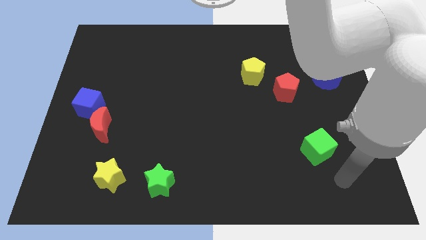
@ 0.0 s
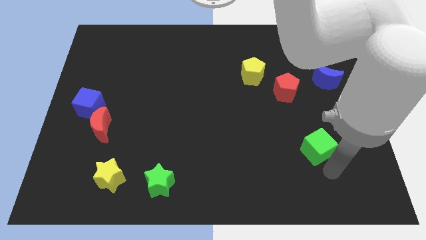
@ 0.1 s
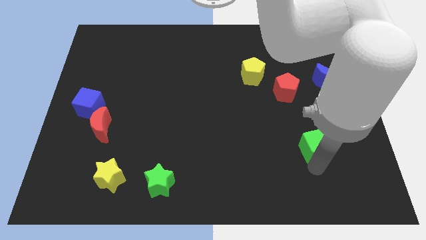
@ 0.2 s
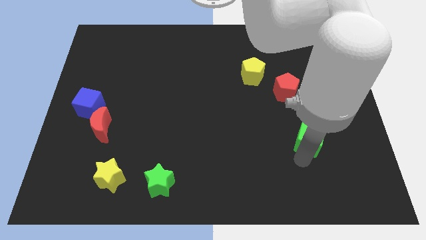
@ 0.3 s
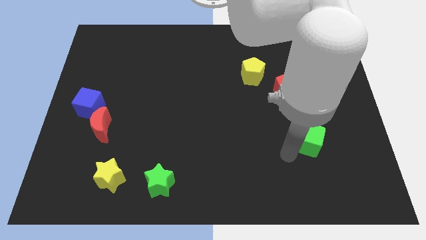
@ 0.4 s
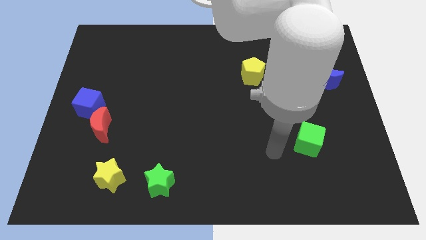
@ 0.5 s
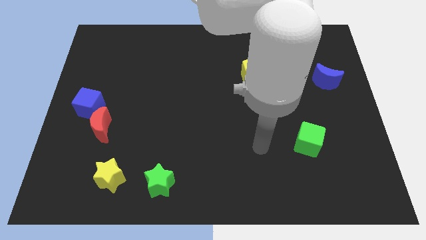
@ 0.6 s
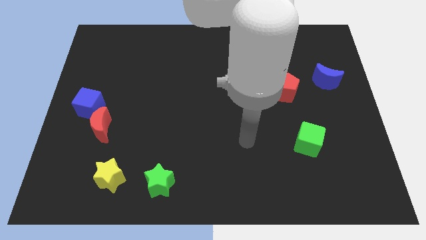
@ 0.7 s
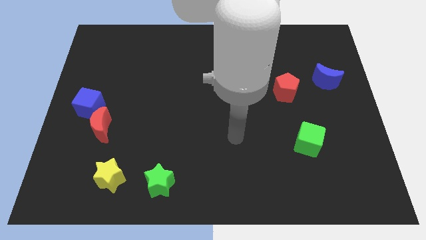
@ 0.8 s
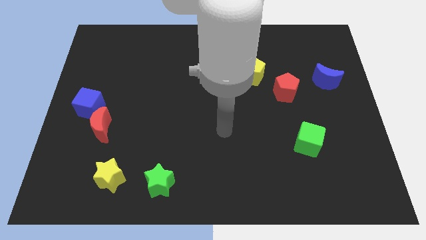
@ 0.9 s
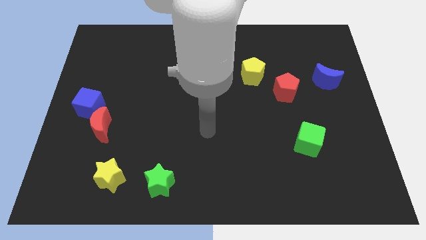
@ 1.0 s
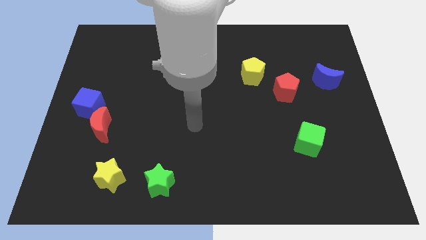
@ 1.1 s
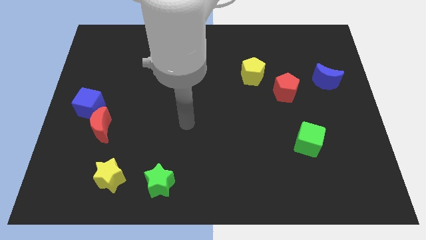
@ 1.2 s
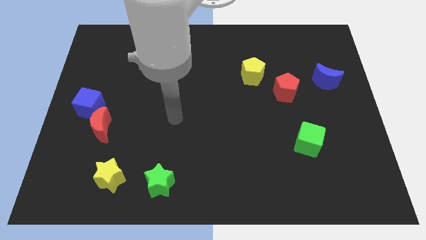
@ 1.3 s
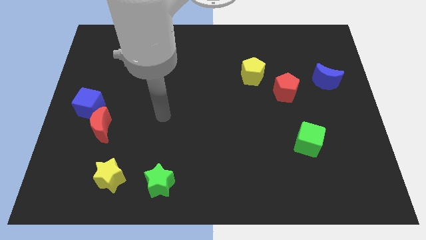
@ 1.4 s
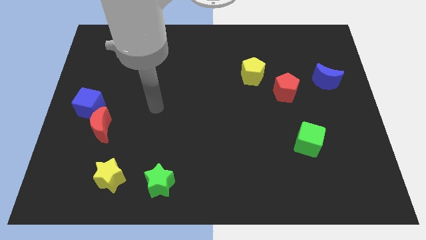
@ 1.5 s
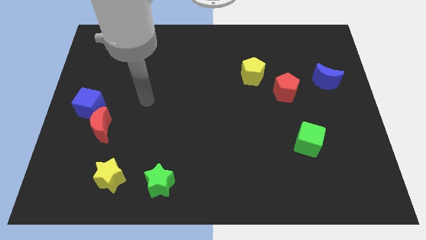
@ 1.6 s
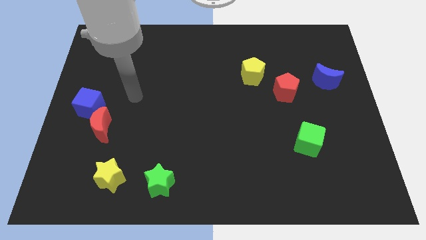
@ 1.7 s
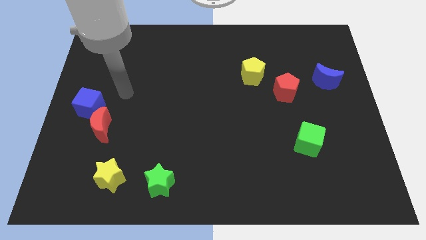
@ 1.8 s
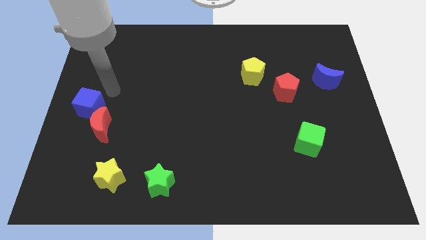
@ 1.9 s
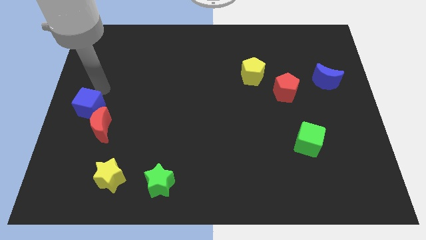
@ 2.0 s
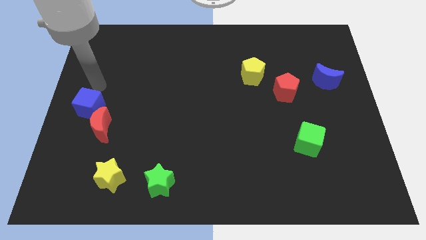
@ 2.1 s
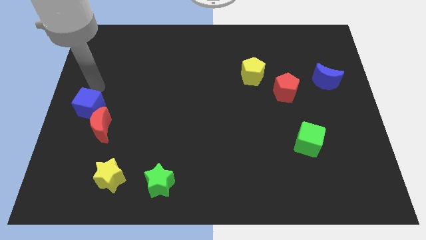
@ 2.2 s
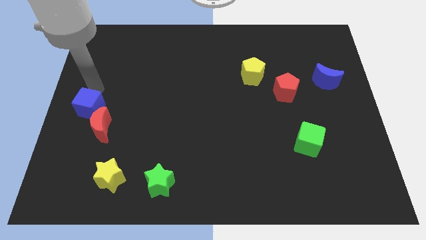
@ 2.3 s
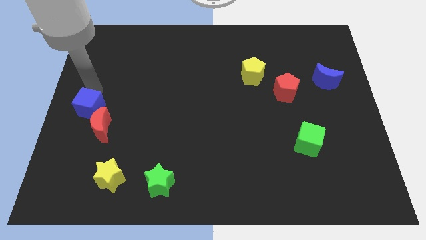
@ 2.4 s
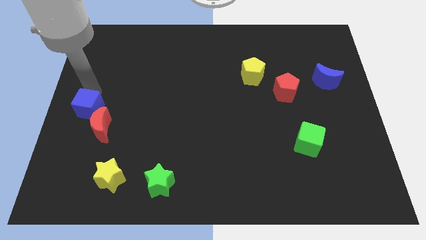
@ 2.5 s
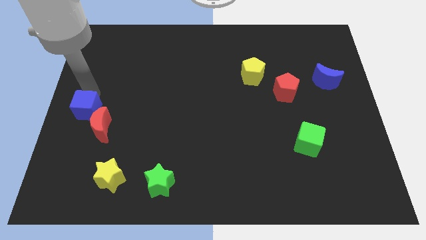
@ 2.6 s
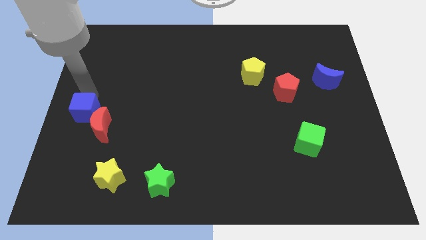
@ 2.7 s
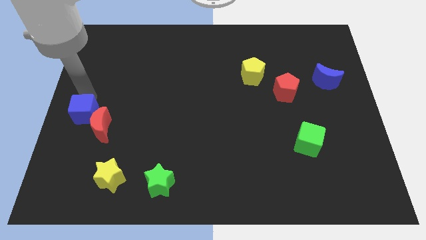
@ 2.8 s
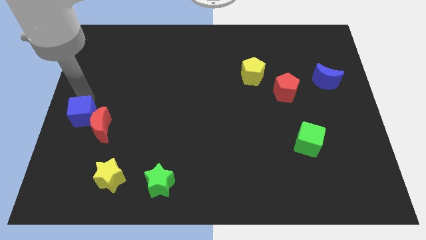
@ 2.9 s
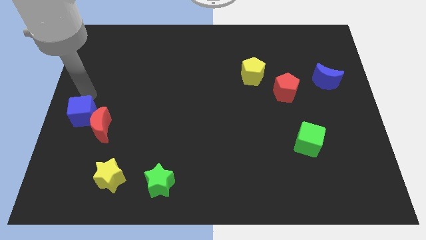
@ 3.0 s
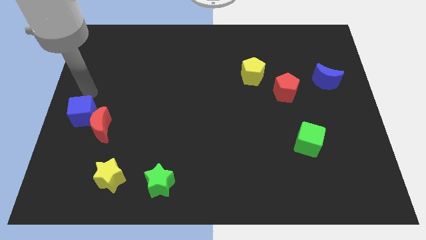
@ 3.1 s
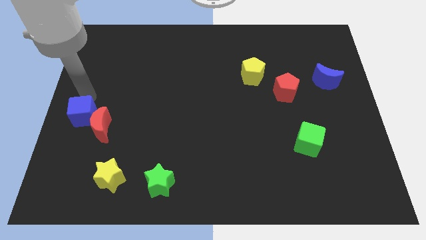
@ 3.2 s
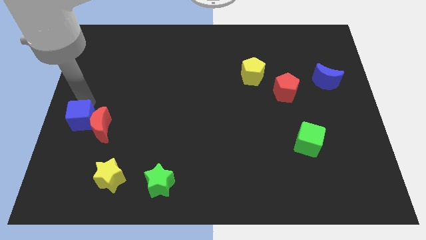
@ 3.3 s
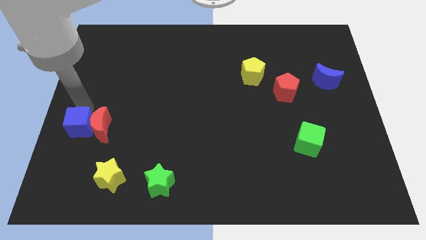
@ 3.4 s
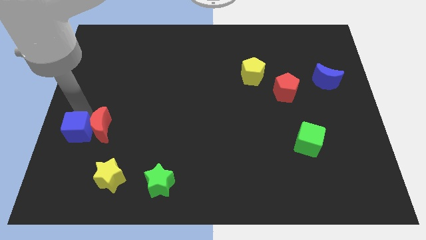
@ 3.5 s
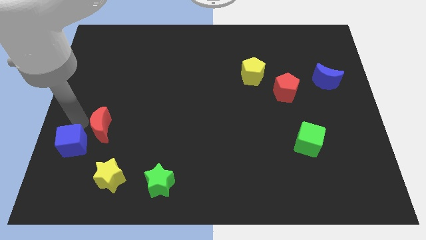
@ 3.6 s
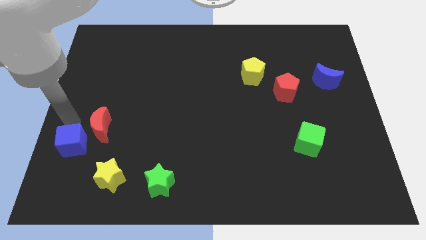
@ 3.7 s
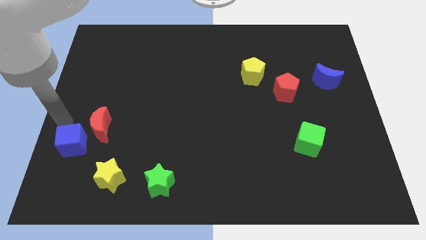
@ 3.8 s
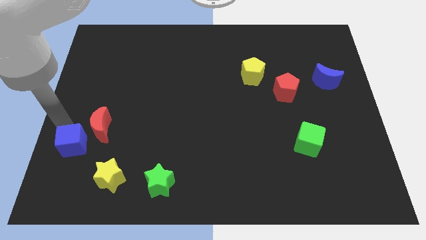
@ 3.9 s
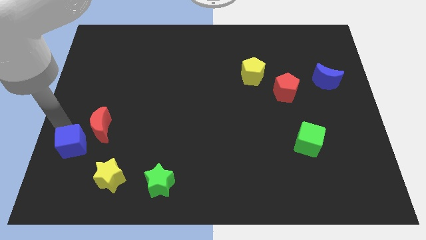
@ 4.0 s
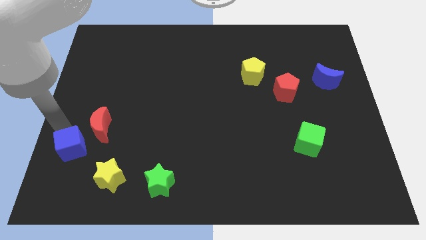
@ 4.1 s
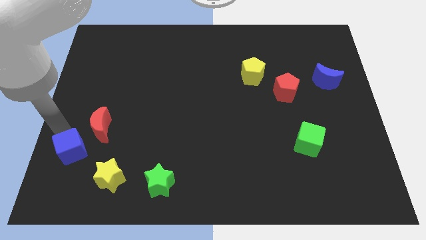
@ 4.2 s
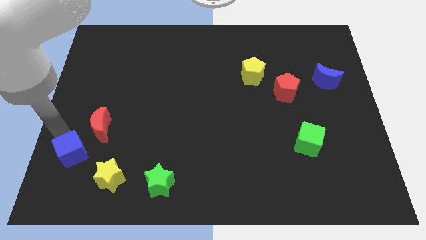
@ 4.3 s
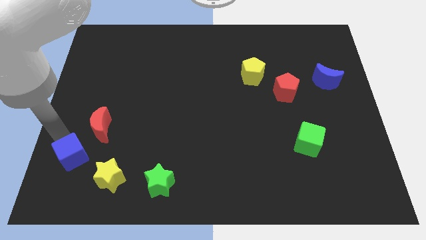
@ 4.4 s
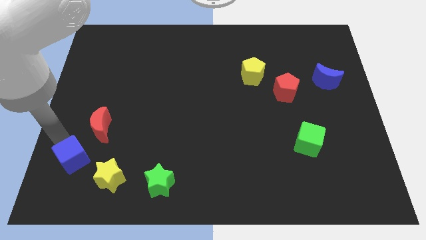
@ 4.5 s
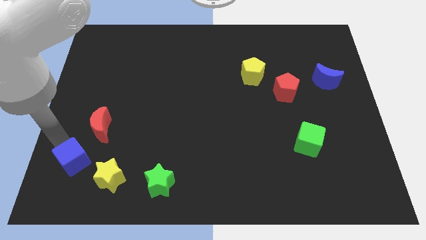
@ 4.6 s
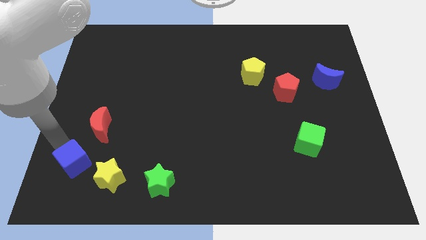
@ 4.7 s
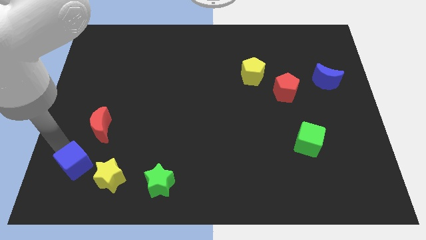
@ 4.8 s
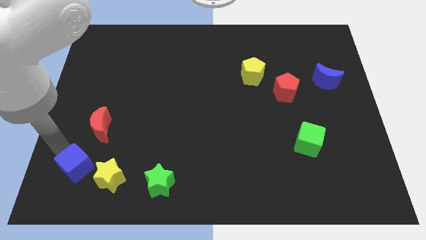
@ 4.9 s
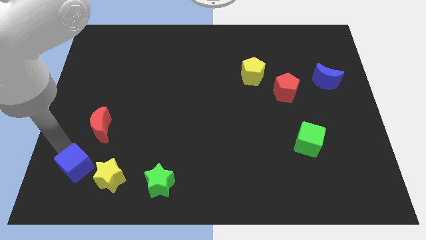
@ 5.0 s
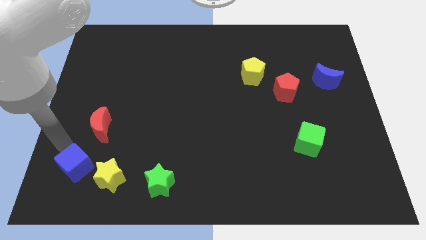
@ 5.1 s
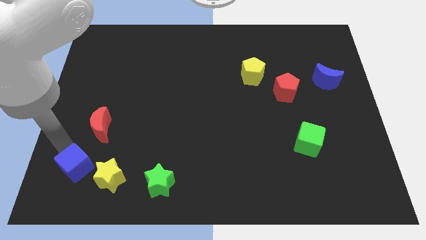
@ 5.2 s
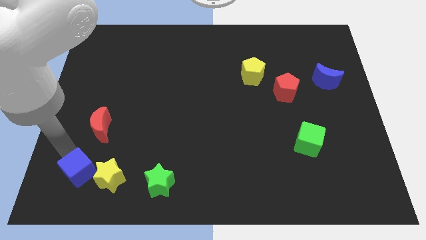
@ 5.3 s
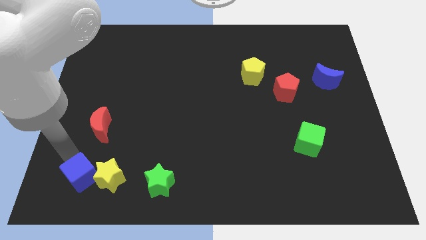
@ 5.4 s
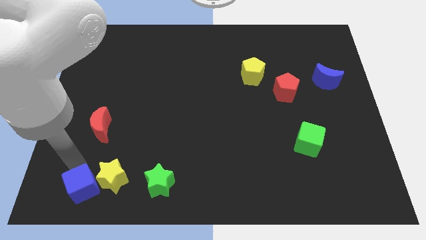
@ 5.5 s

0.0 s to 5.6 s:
push the blue cube to the left side of the green star

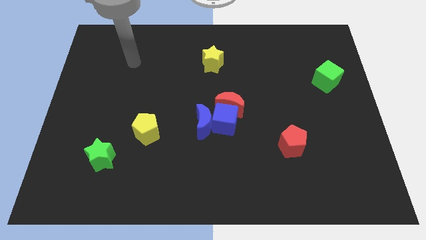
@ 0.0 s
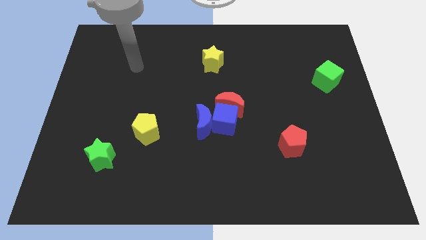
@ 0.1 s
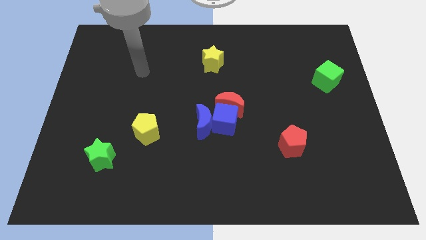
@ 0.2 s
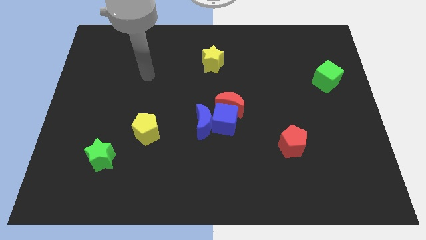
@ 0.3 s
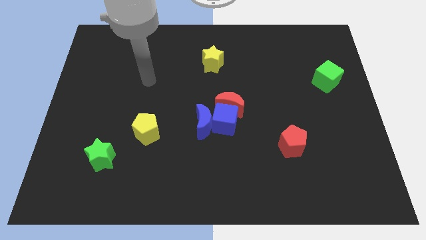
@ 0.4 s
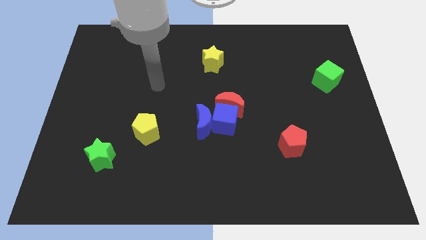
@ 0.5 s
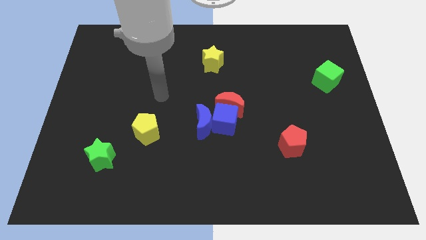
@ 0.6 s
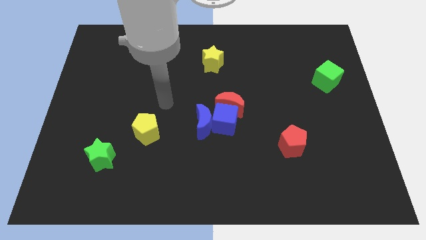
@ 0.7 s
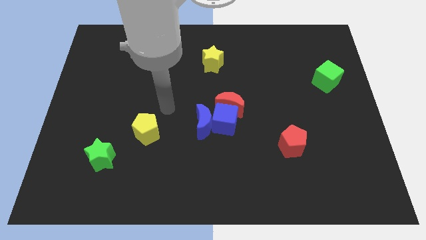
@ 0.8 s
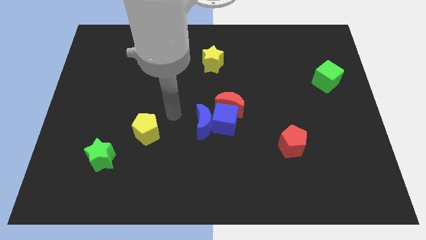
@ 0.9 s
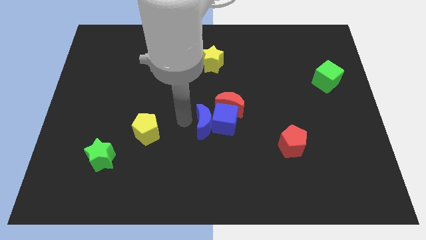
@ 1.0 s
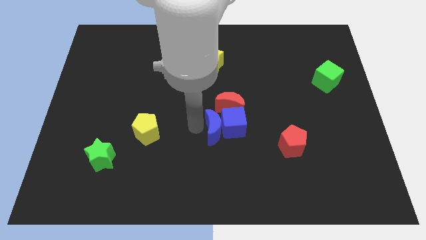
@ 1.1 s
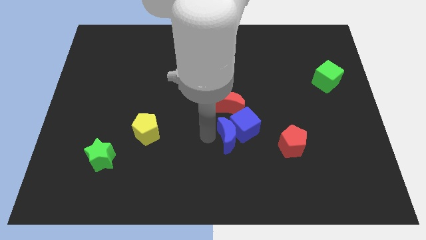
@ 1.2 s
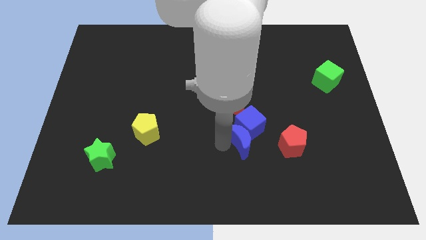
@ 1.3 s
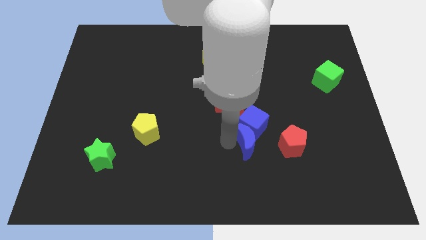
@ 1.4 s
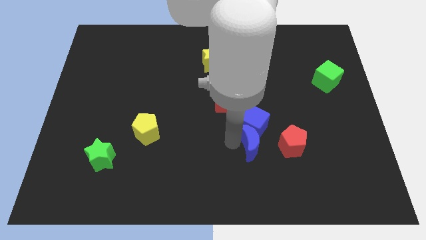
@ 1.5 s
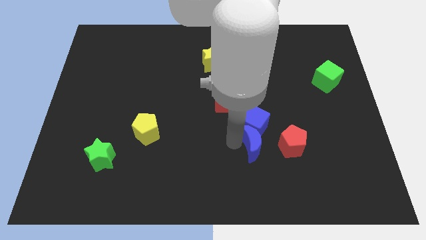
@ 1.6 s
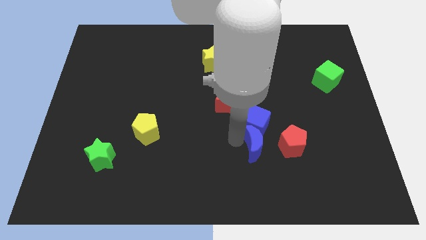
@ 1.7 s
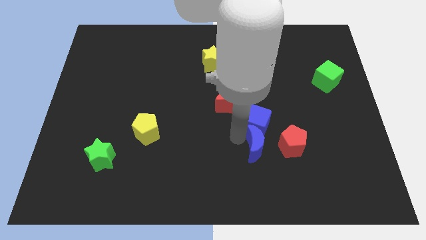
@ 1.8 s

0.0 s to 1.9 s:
slide the blue cube right of the red moon
